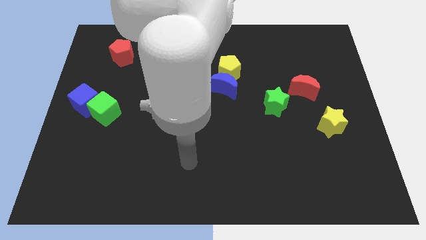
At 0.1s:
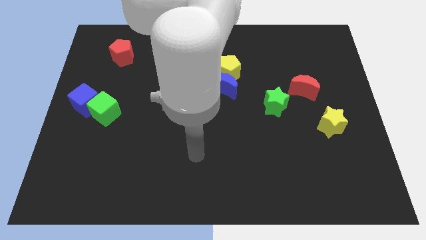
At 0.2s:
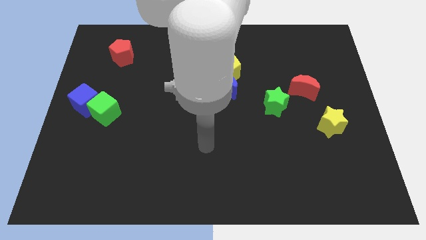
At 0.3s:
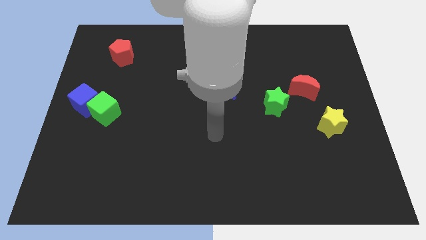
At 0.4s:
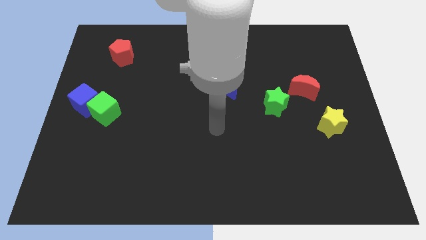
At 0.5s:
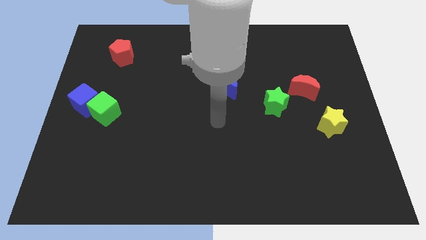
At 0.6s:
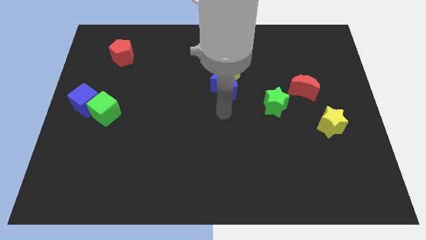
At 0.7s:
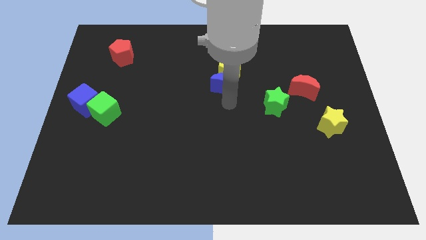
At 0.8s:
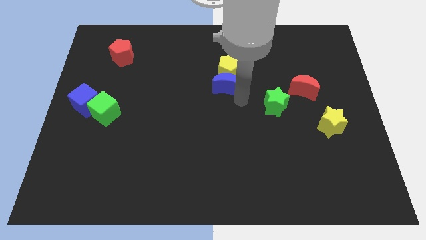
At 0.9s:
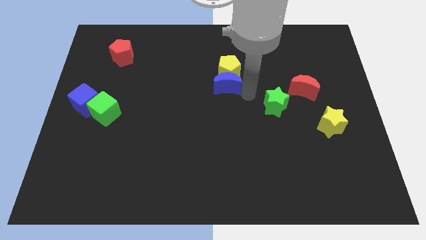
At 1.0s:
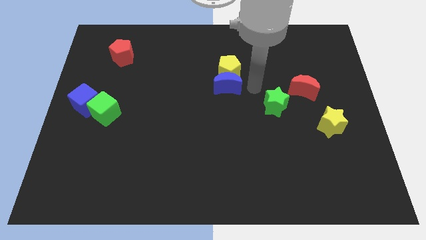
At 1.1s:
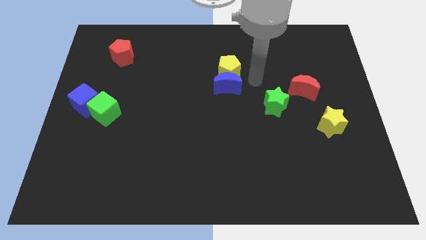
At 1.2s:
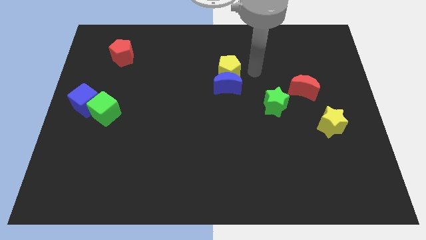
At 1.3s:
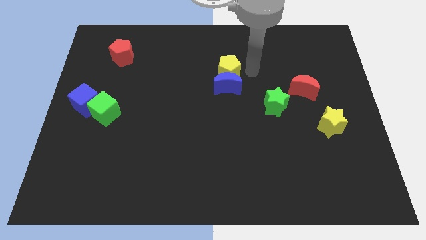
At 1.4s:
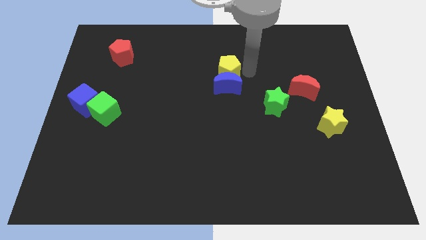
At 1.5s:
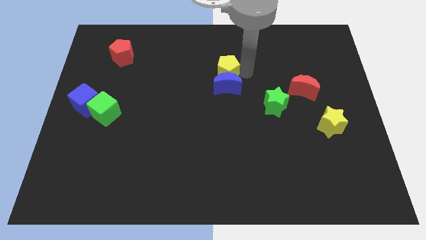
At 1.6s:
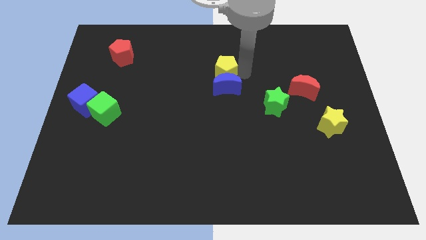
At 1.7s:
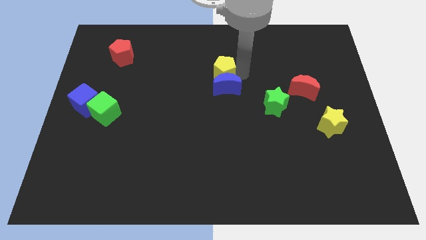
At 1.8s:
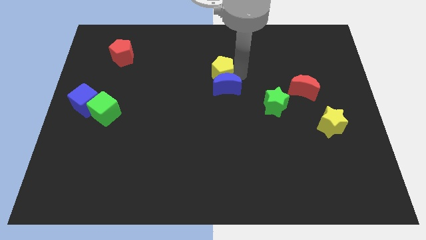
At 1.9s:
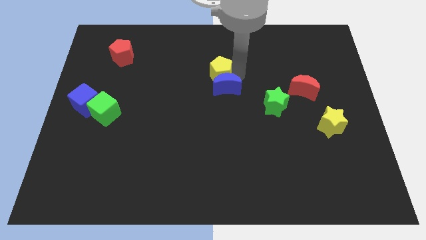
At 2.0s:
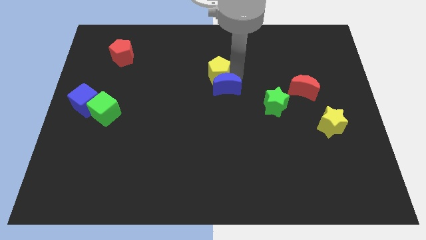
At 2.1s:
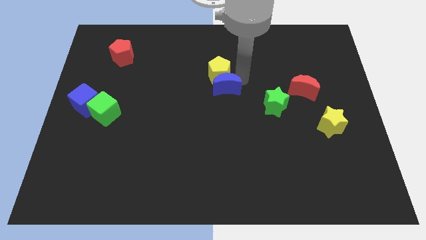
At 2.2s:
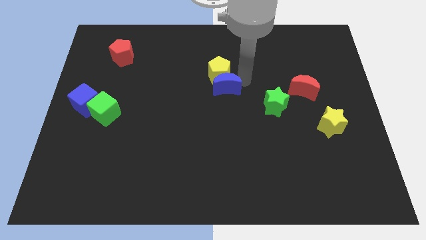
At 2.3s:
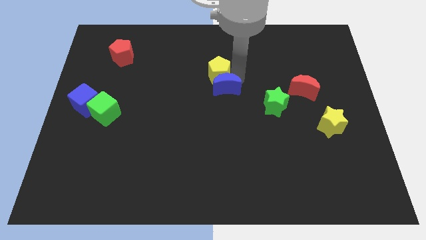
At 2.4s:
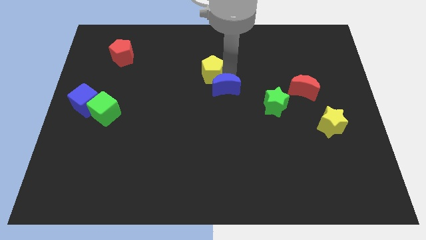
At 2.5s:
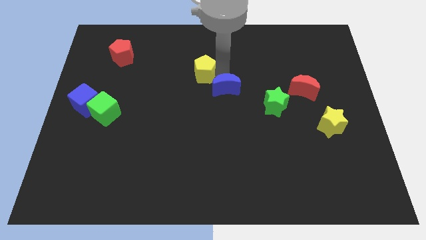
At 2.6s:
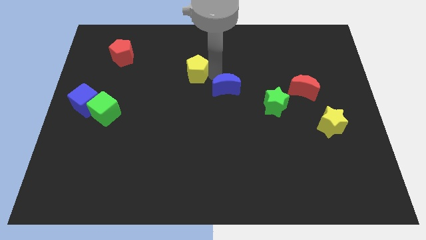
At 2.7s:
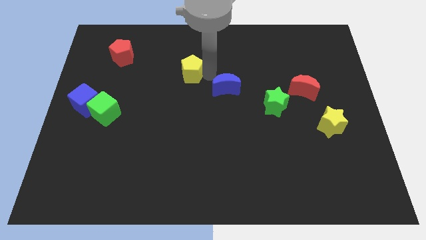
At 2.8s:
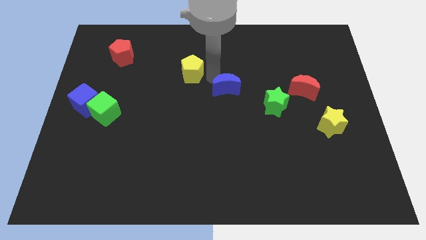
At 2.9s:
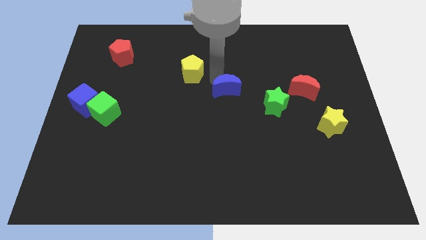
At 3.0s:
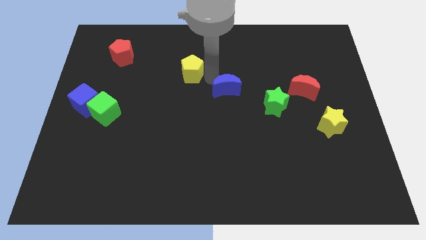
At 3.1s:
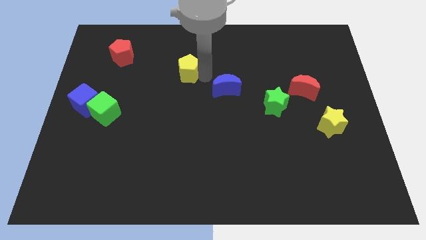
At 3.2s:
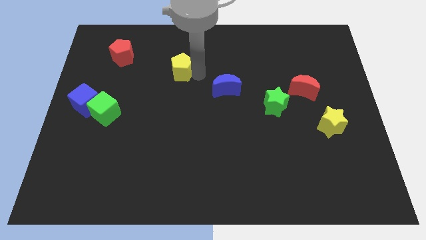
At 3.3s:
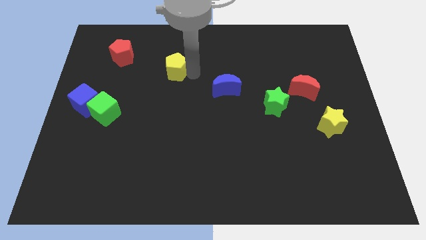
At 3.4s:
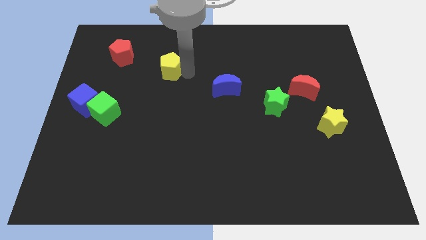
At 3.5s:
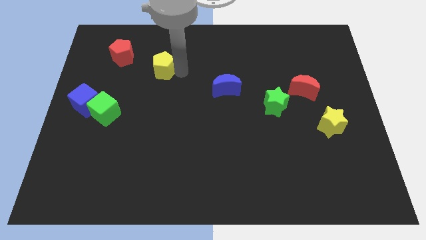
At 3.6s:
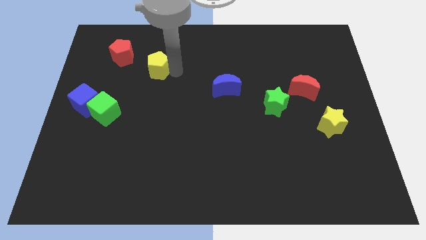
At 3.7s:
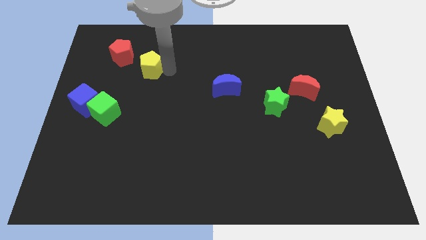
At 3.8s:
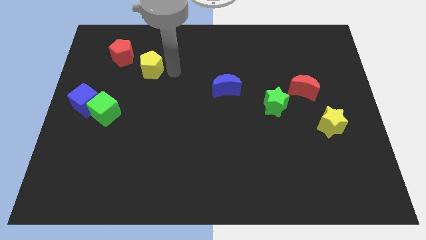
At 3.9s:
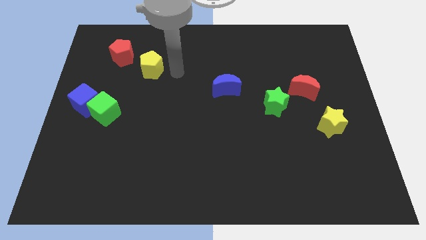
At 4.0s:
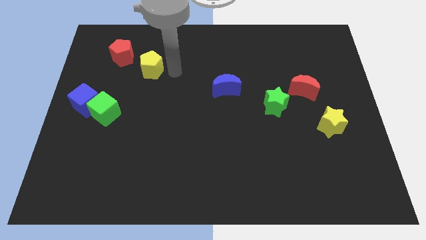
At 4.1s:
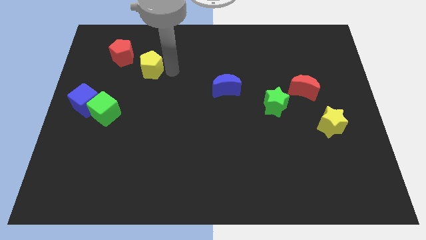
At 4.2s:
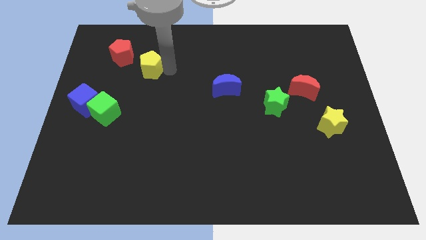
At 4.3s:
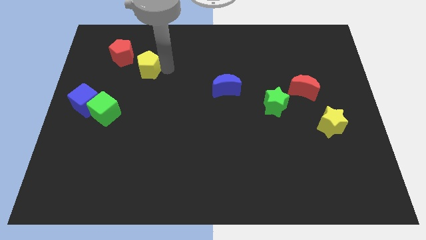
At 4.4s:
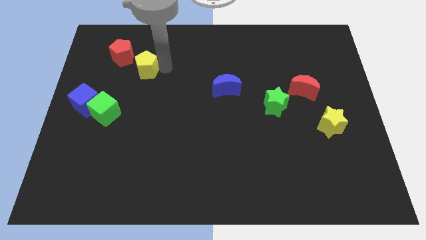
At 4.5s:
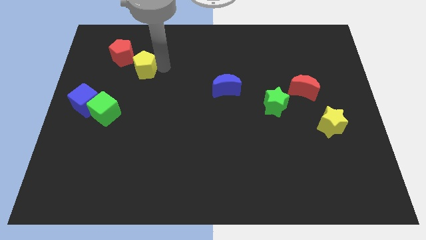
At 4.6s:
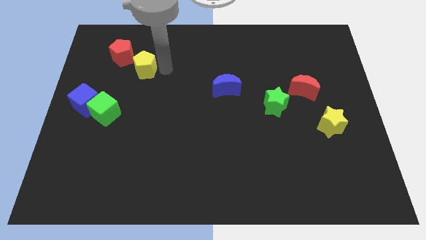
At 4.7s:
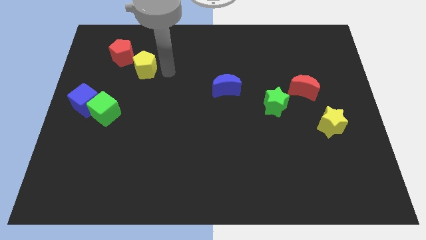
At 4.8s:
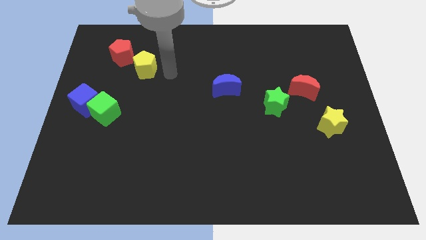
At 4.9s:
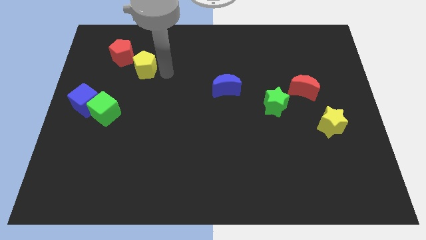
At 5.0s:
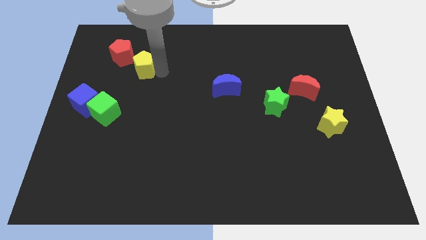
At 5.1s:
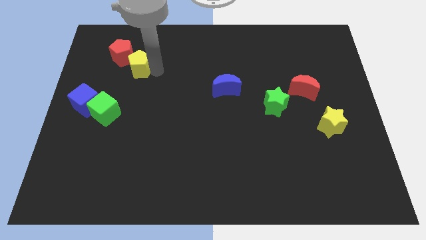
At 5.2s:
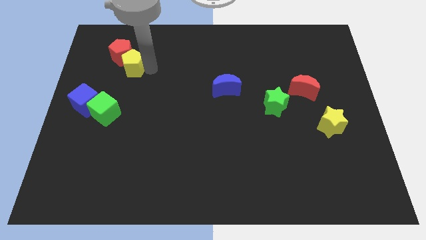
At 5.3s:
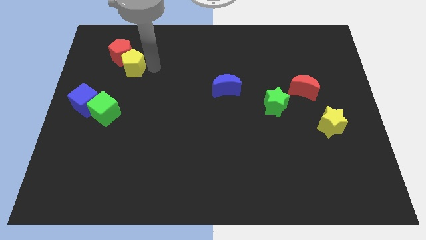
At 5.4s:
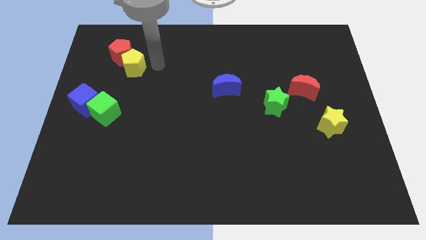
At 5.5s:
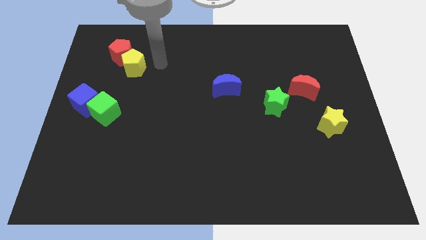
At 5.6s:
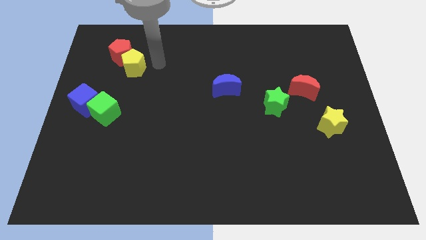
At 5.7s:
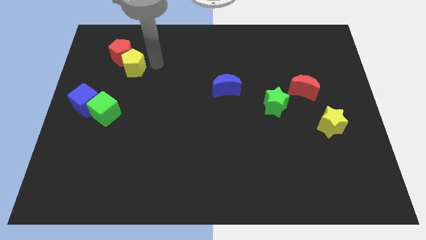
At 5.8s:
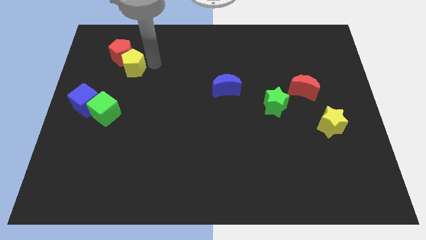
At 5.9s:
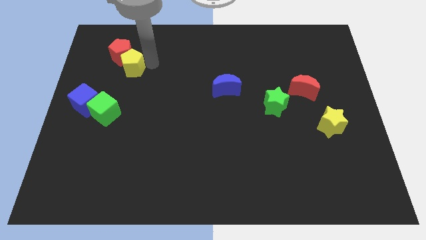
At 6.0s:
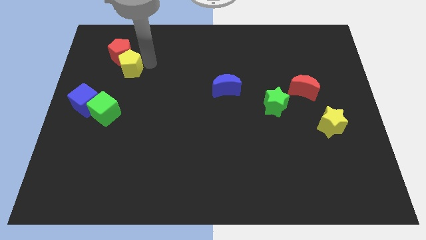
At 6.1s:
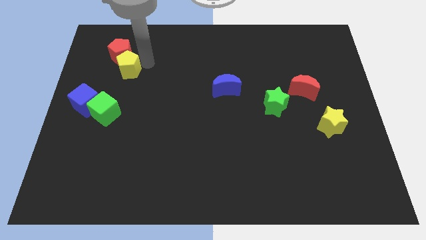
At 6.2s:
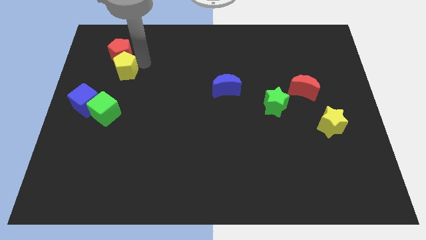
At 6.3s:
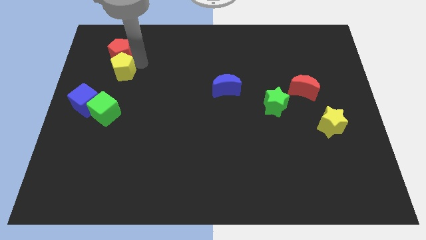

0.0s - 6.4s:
slide the yellow pentagon diagonally down and to the left of the red pentagon
